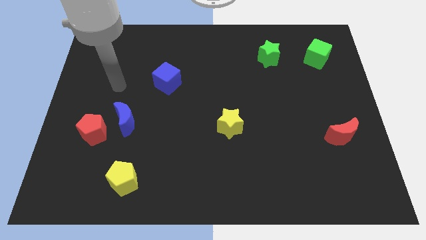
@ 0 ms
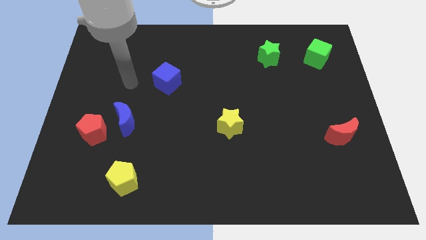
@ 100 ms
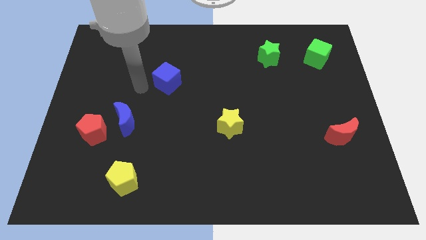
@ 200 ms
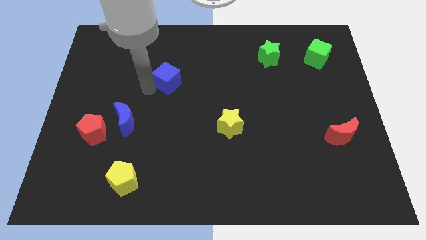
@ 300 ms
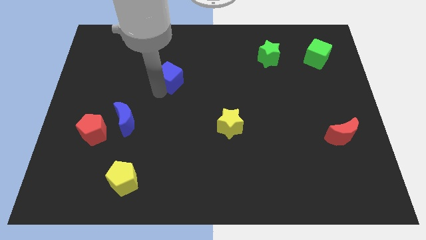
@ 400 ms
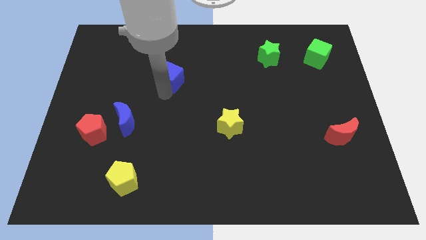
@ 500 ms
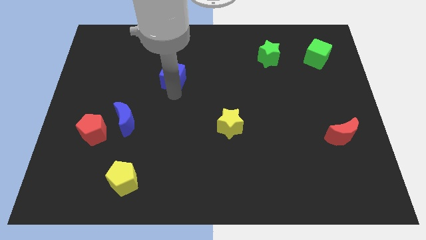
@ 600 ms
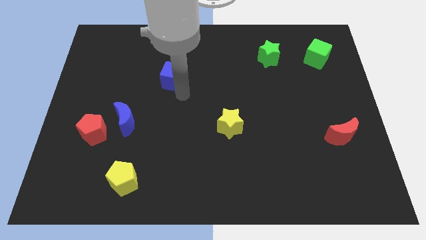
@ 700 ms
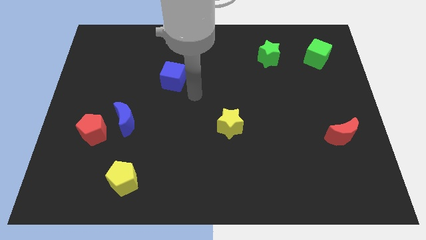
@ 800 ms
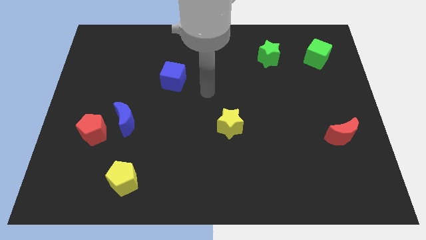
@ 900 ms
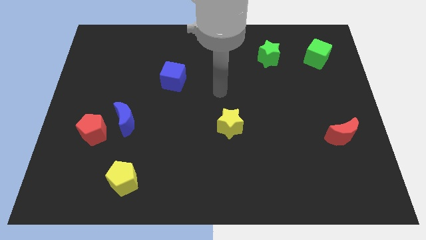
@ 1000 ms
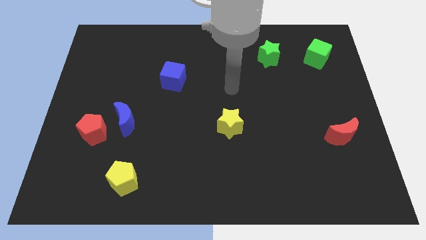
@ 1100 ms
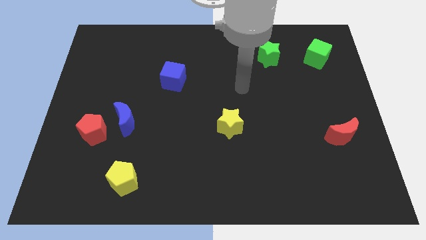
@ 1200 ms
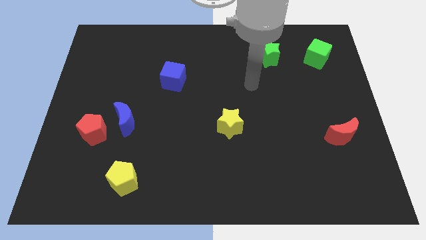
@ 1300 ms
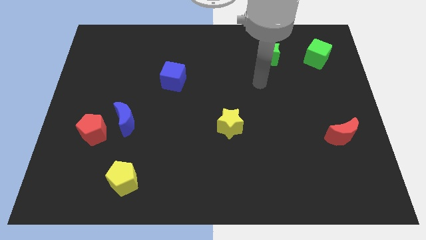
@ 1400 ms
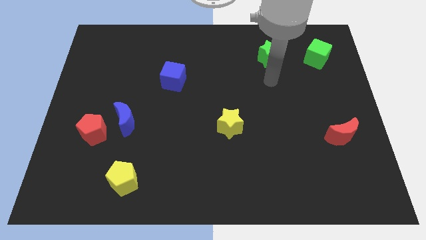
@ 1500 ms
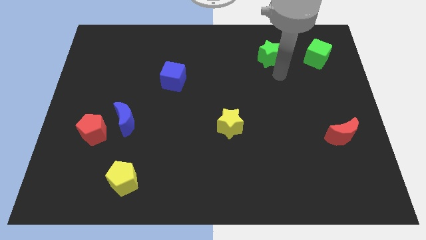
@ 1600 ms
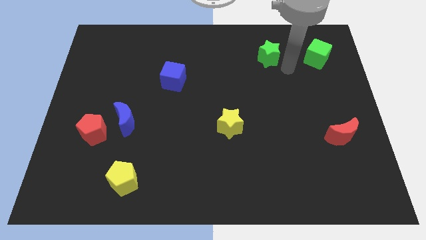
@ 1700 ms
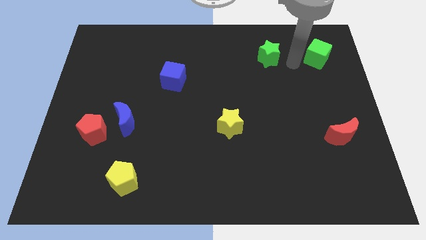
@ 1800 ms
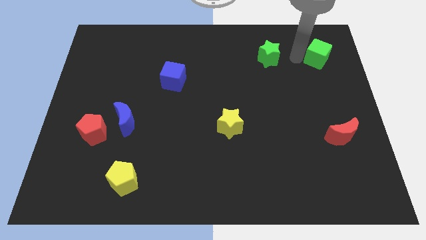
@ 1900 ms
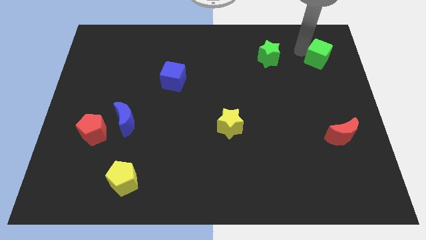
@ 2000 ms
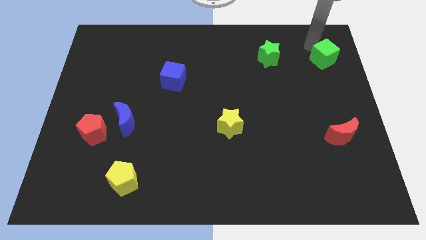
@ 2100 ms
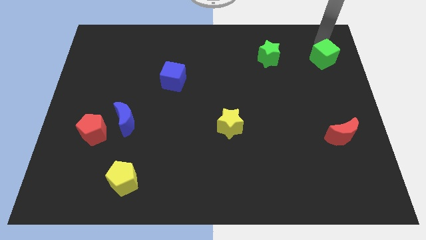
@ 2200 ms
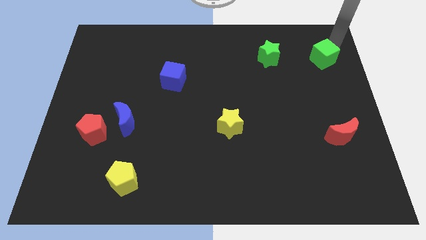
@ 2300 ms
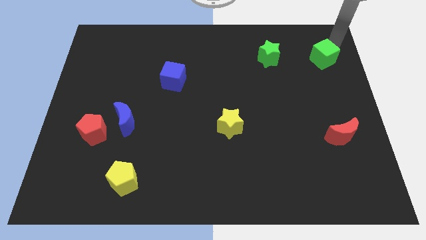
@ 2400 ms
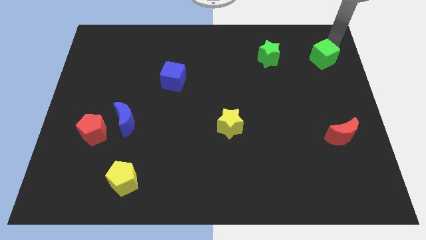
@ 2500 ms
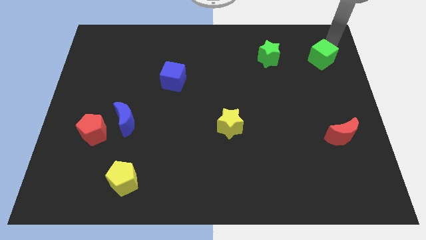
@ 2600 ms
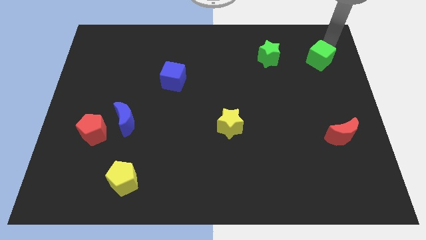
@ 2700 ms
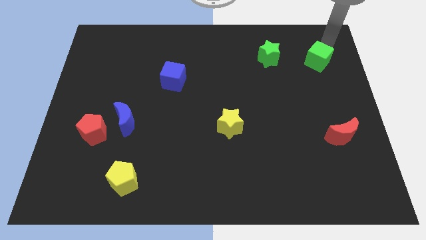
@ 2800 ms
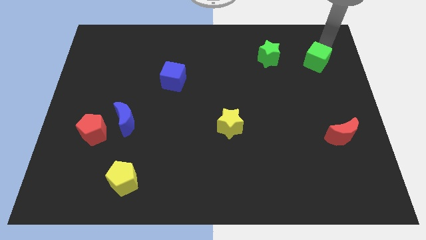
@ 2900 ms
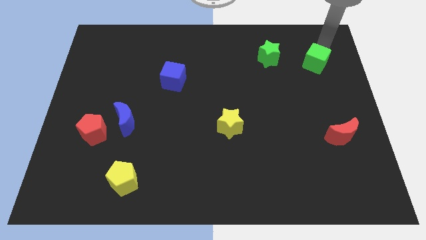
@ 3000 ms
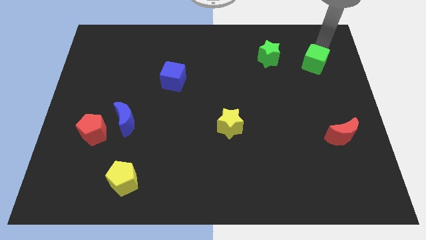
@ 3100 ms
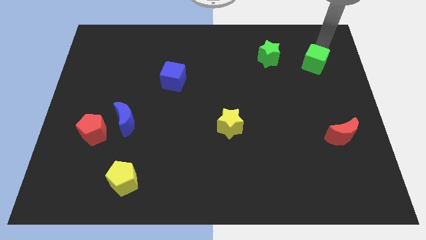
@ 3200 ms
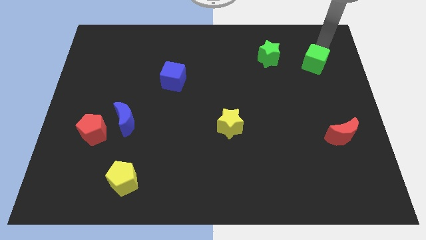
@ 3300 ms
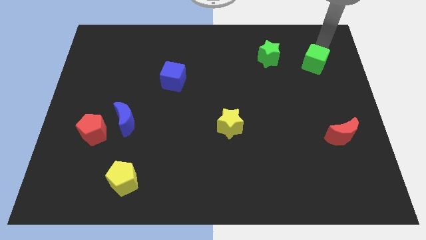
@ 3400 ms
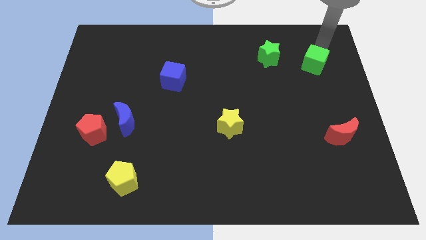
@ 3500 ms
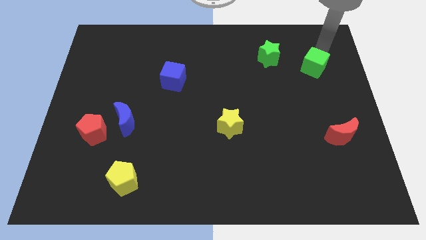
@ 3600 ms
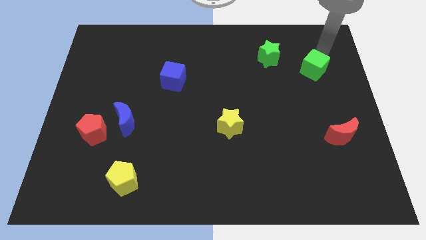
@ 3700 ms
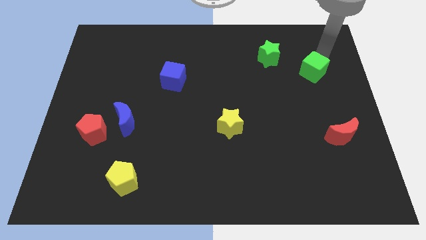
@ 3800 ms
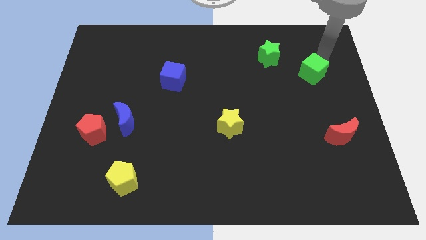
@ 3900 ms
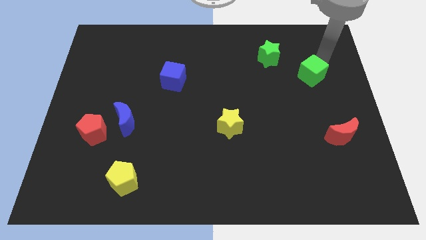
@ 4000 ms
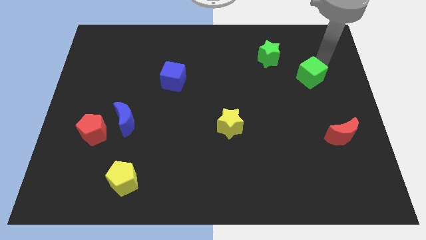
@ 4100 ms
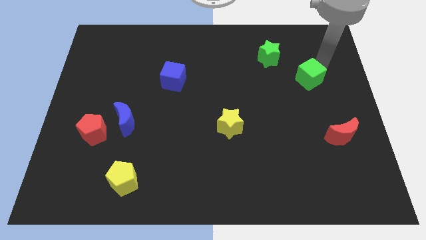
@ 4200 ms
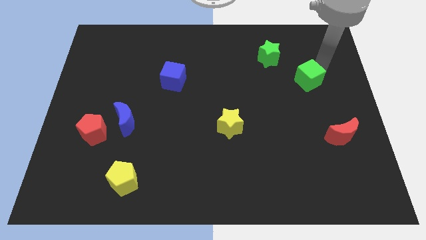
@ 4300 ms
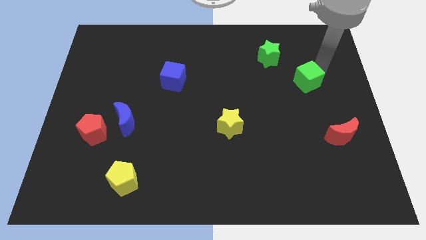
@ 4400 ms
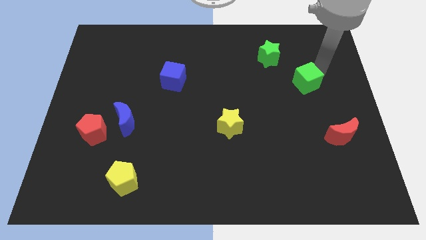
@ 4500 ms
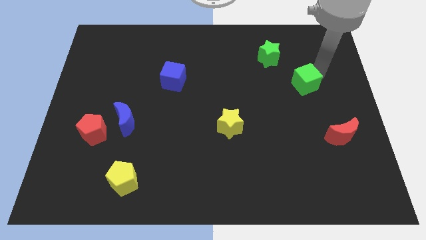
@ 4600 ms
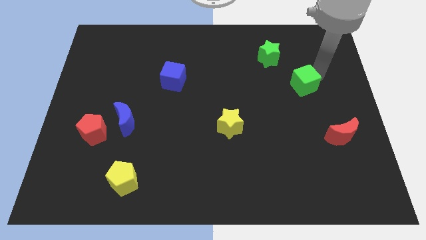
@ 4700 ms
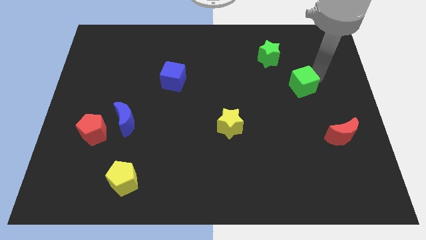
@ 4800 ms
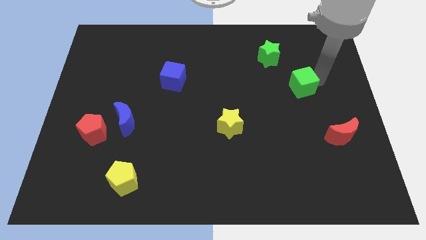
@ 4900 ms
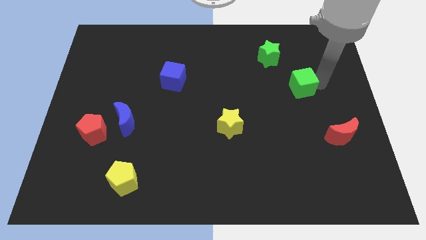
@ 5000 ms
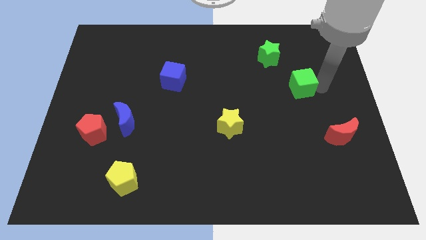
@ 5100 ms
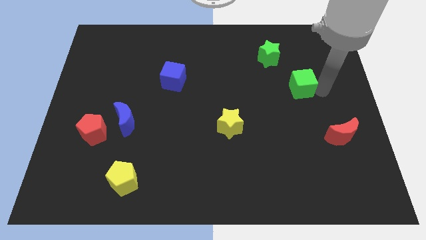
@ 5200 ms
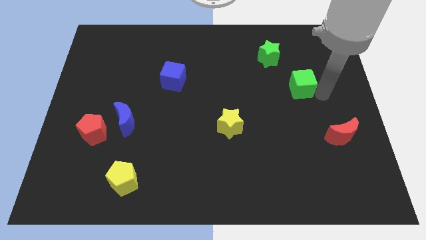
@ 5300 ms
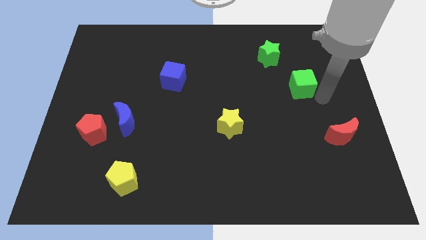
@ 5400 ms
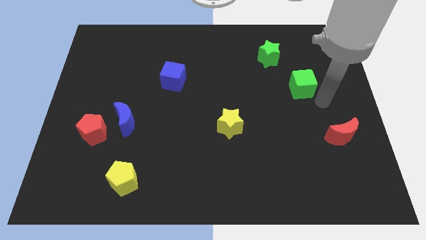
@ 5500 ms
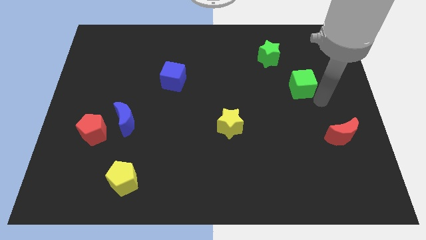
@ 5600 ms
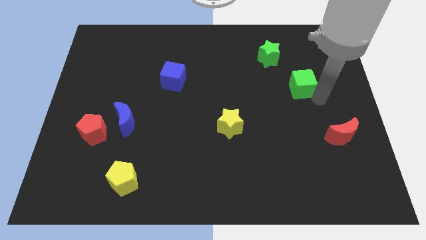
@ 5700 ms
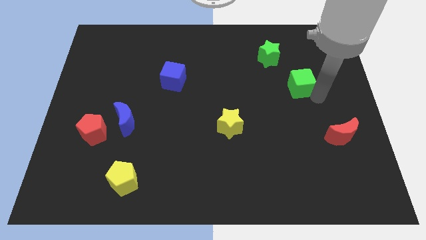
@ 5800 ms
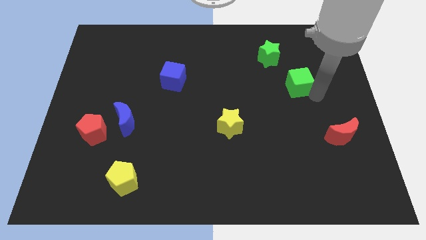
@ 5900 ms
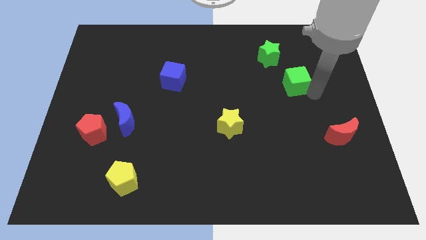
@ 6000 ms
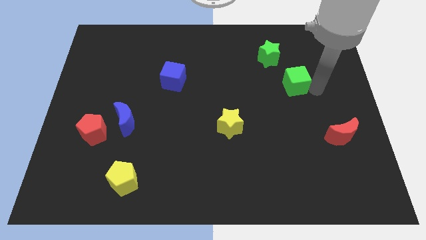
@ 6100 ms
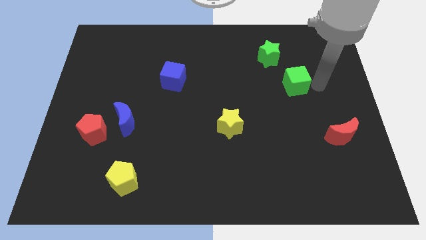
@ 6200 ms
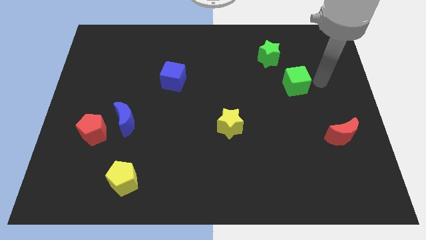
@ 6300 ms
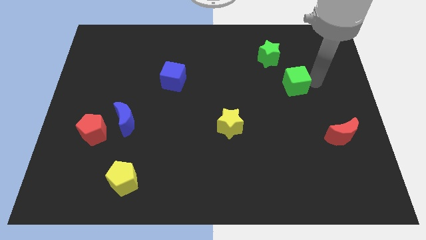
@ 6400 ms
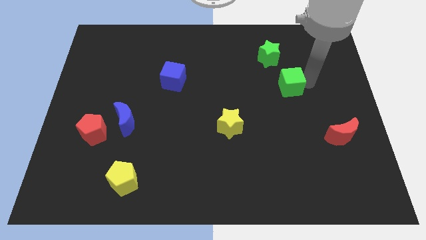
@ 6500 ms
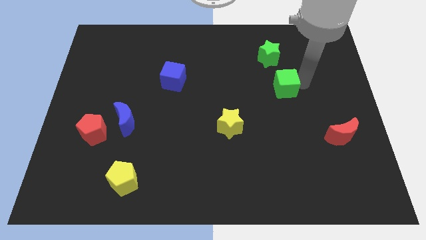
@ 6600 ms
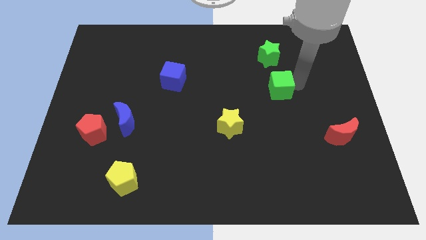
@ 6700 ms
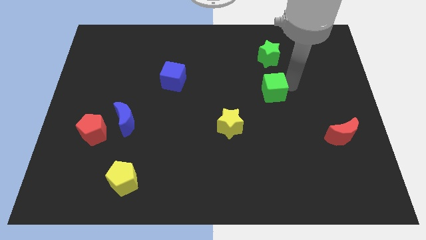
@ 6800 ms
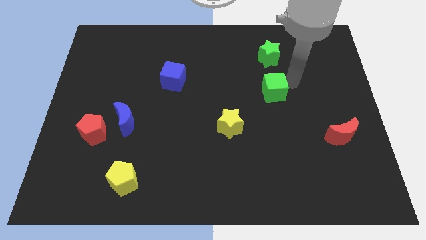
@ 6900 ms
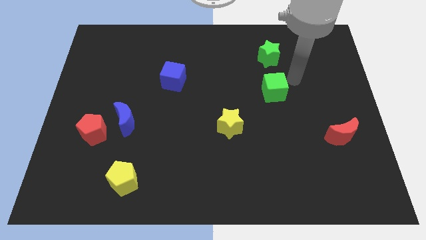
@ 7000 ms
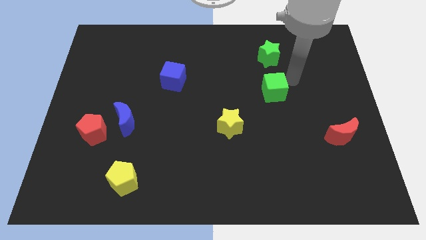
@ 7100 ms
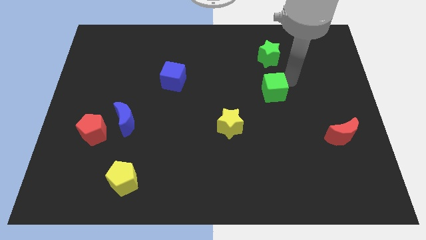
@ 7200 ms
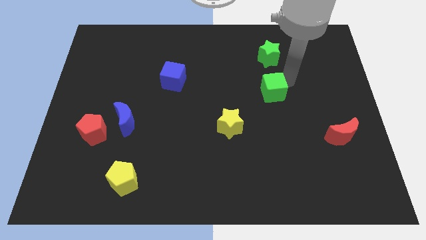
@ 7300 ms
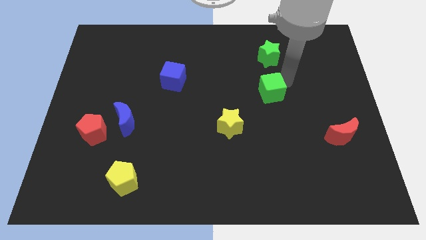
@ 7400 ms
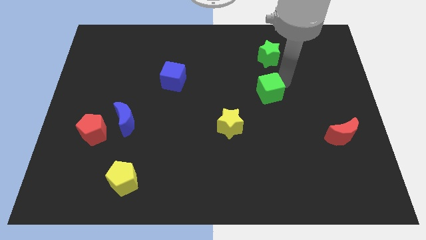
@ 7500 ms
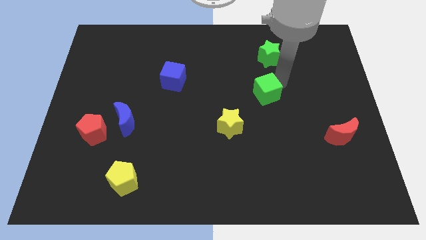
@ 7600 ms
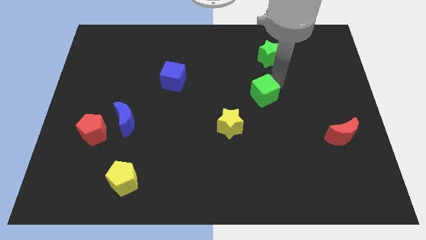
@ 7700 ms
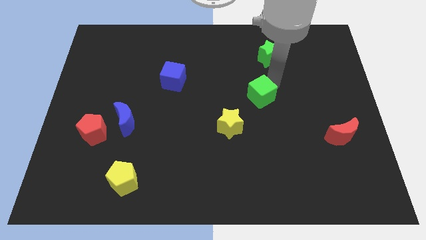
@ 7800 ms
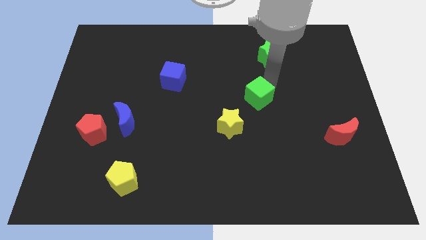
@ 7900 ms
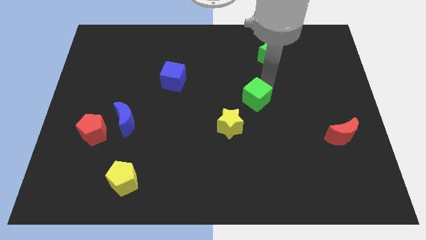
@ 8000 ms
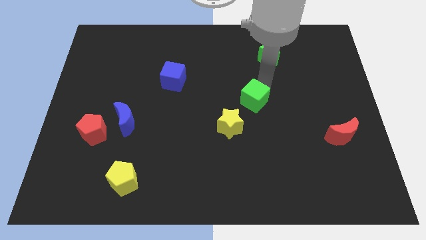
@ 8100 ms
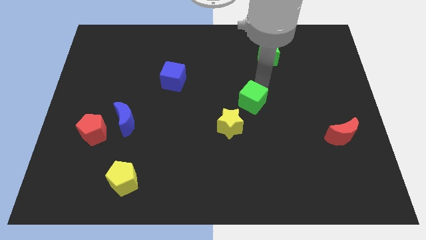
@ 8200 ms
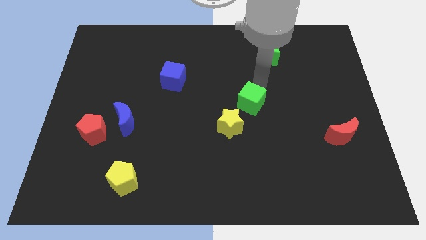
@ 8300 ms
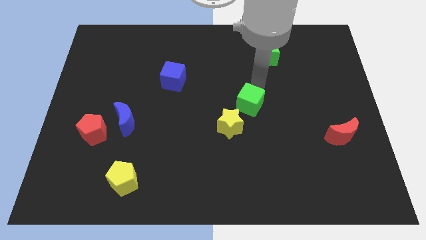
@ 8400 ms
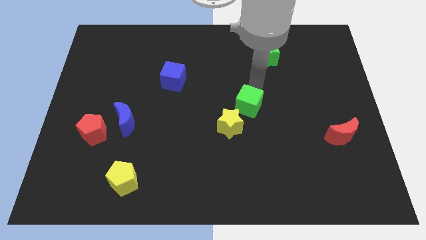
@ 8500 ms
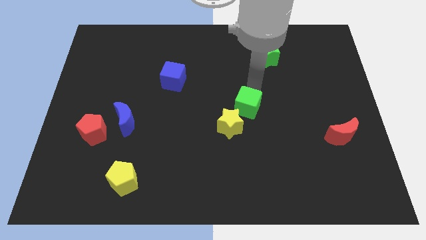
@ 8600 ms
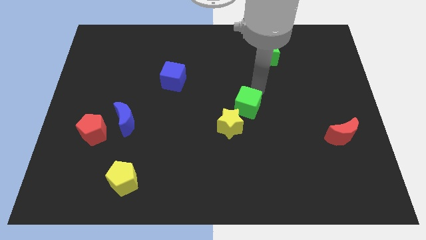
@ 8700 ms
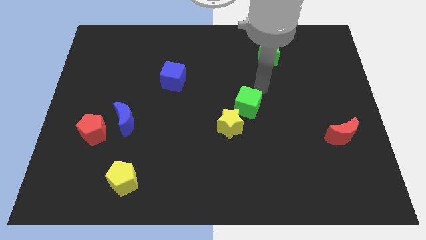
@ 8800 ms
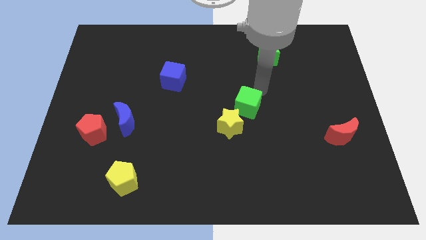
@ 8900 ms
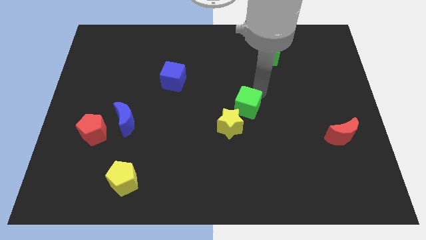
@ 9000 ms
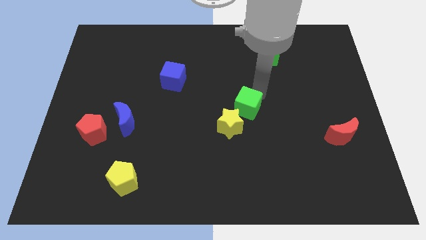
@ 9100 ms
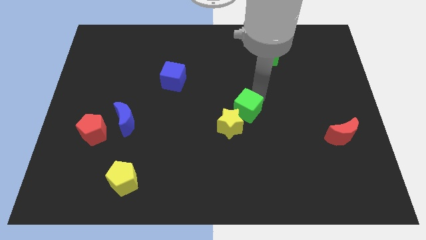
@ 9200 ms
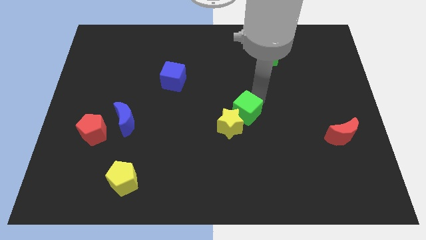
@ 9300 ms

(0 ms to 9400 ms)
slide the green cube towards the yellow star
